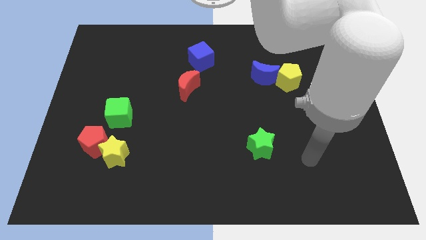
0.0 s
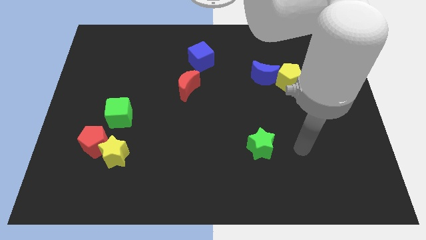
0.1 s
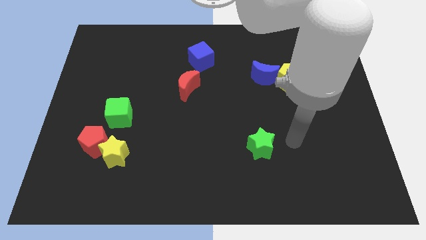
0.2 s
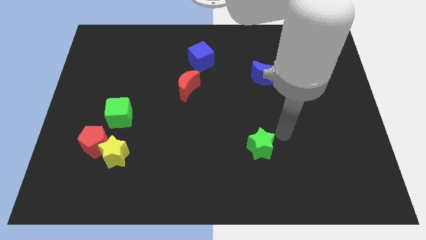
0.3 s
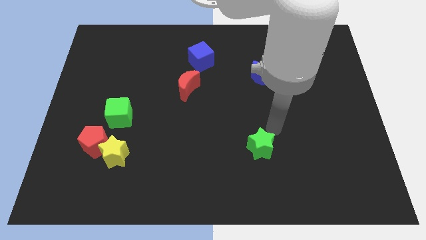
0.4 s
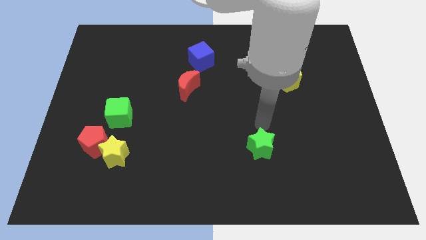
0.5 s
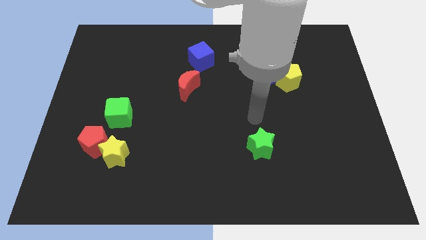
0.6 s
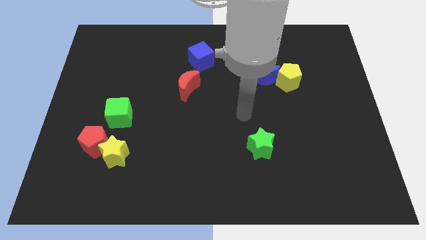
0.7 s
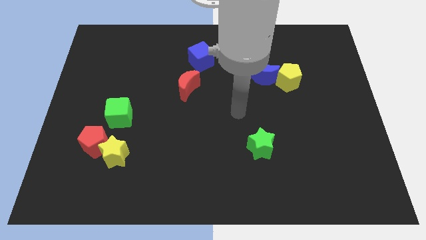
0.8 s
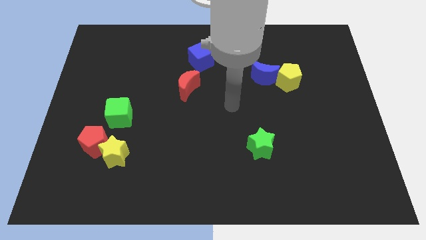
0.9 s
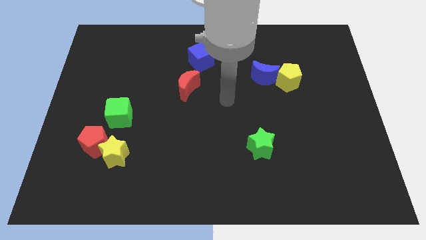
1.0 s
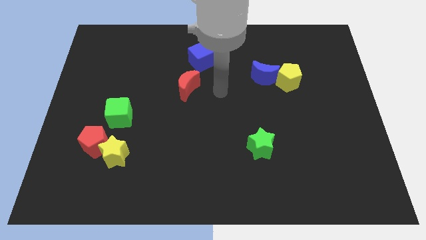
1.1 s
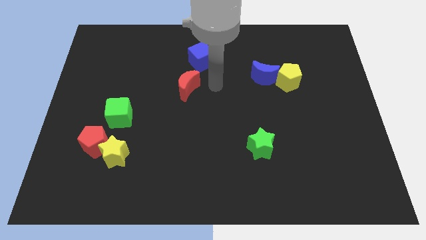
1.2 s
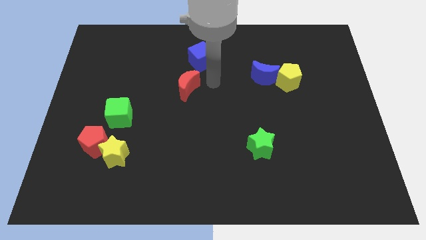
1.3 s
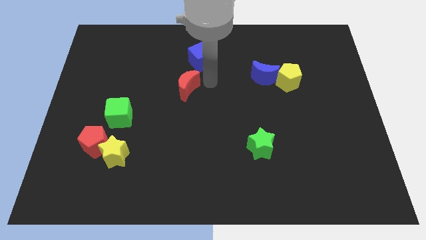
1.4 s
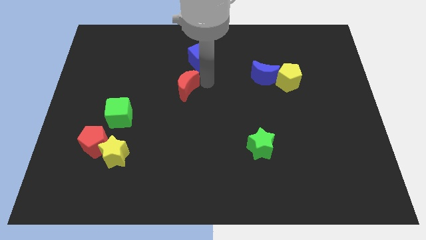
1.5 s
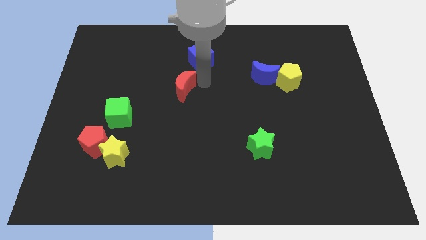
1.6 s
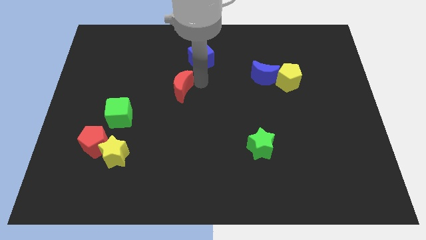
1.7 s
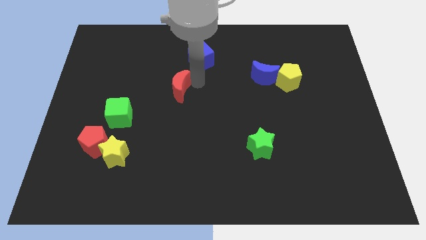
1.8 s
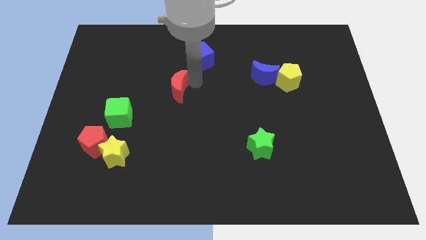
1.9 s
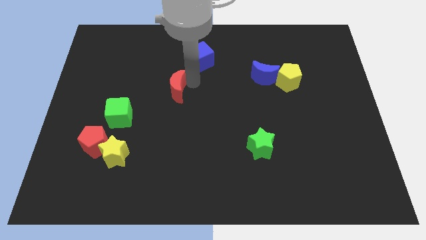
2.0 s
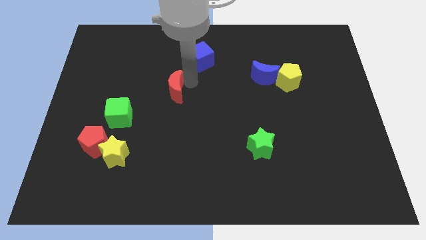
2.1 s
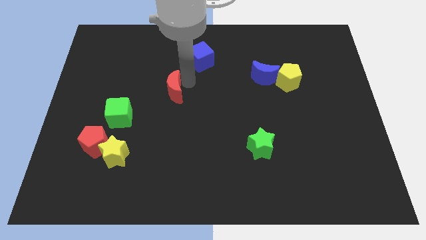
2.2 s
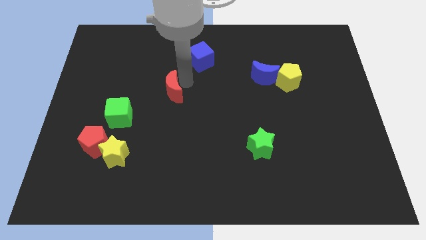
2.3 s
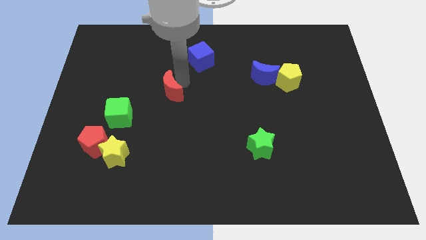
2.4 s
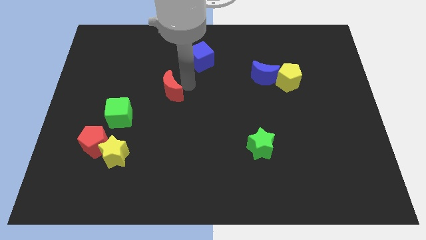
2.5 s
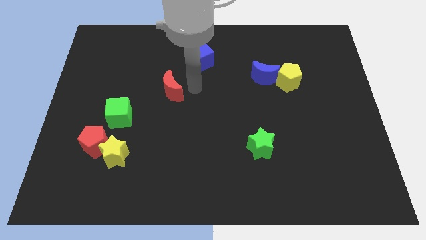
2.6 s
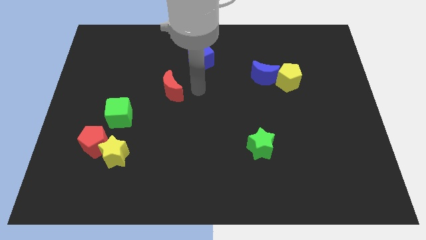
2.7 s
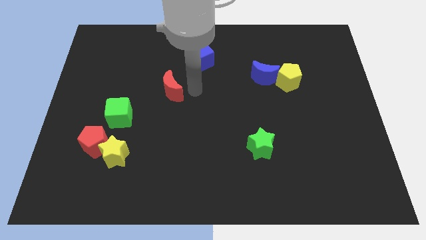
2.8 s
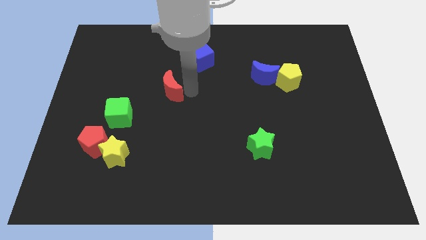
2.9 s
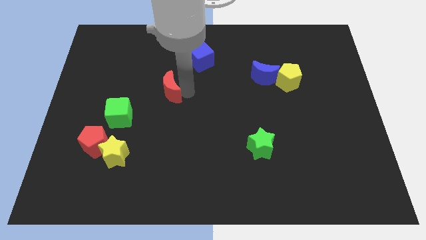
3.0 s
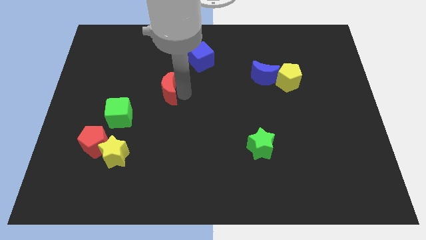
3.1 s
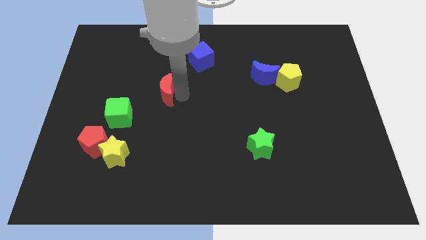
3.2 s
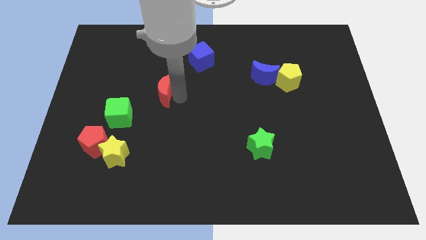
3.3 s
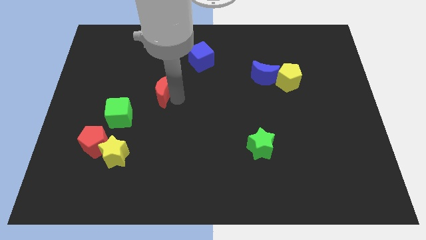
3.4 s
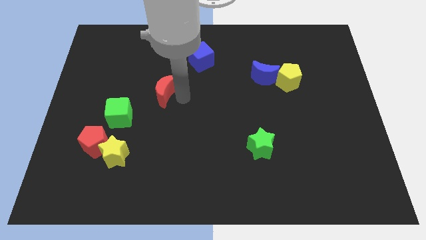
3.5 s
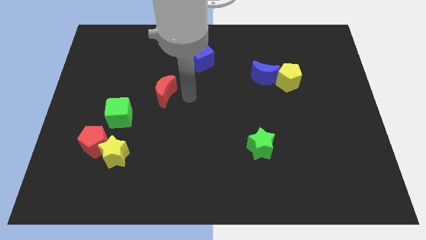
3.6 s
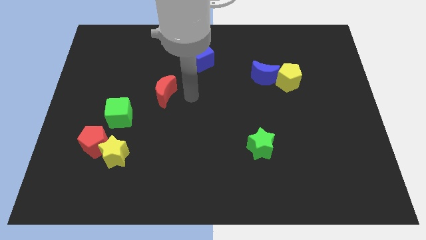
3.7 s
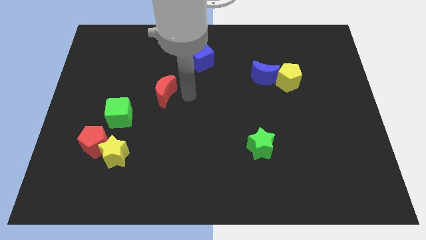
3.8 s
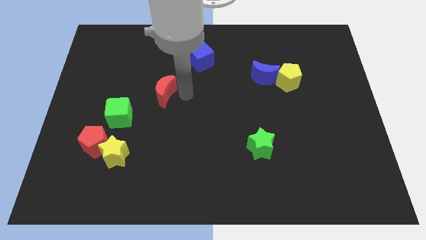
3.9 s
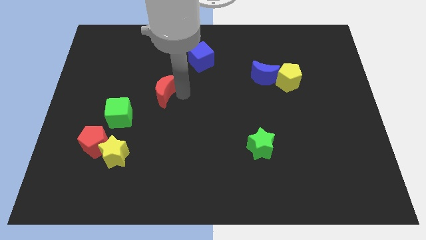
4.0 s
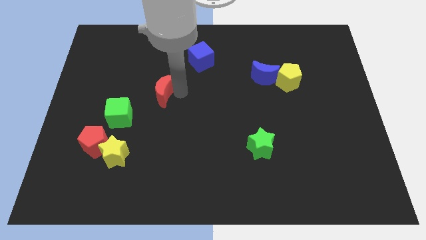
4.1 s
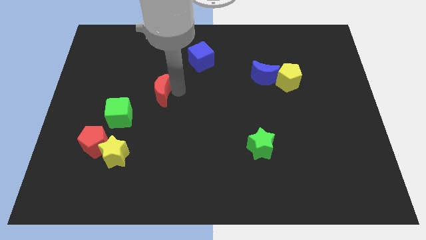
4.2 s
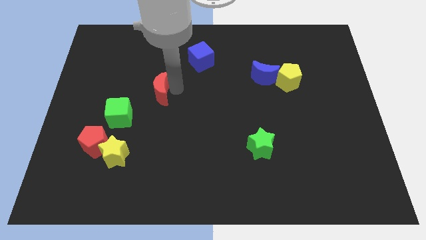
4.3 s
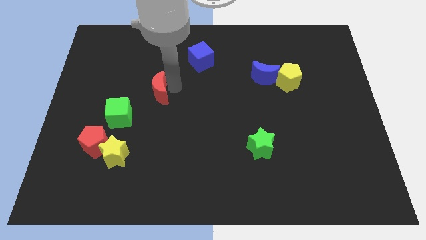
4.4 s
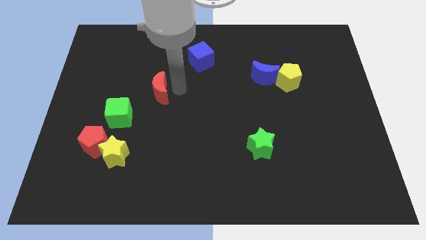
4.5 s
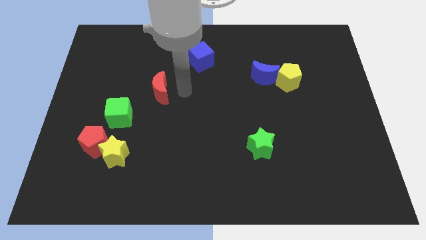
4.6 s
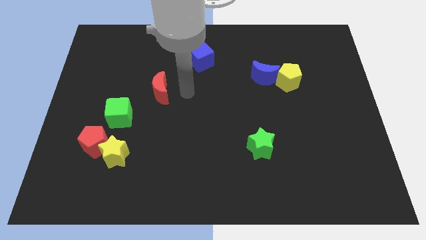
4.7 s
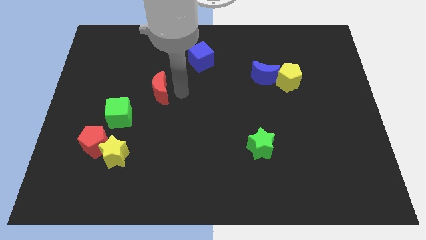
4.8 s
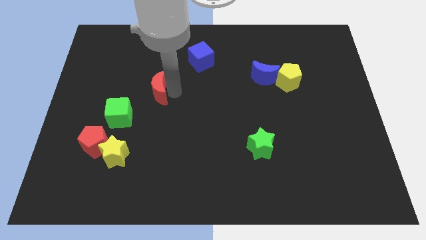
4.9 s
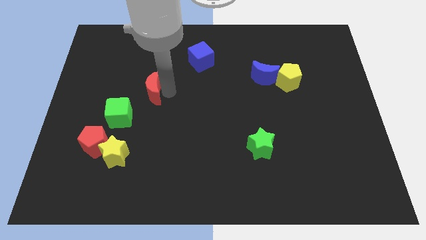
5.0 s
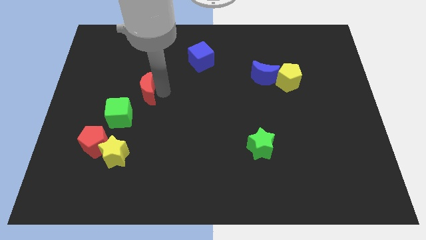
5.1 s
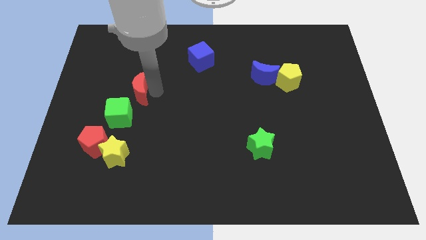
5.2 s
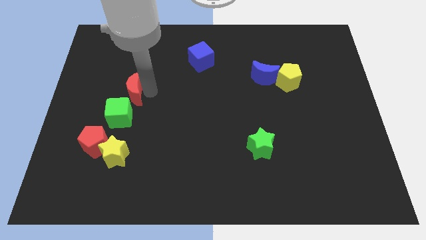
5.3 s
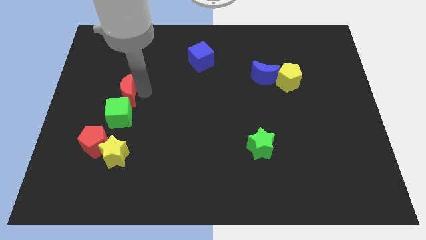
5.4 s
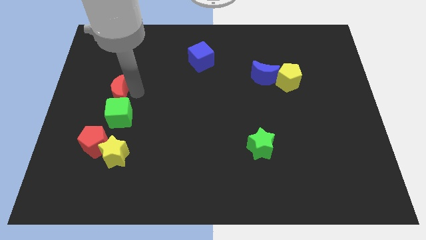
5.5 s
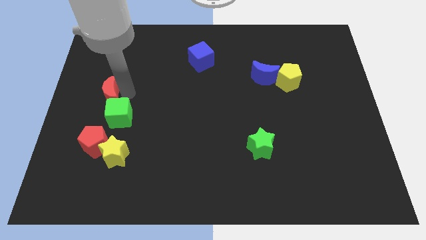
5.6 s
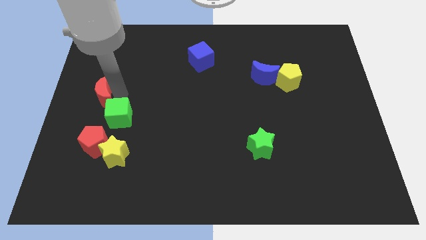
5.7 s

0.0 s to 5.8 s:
move the red moon to the left side

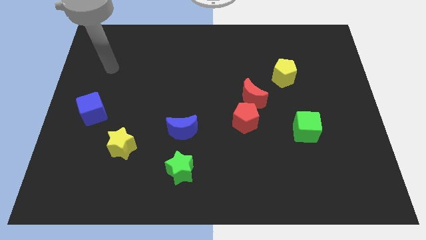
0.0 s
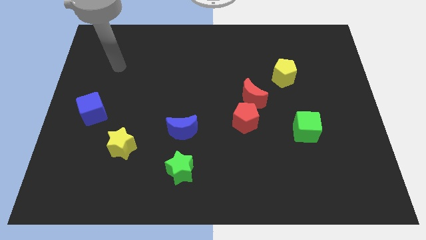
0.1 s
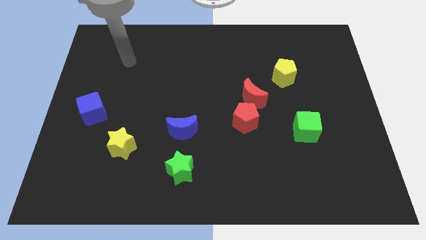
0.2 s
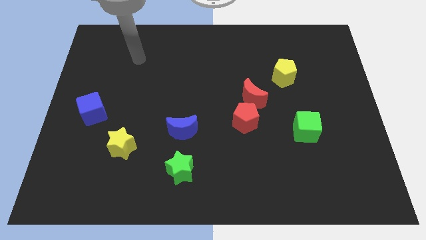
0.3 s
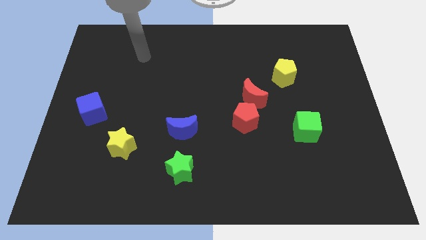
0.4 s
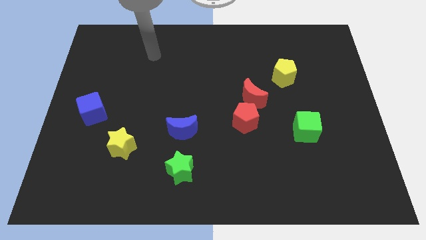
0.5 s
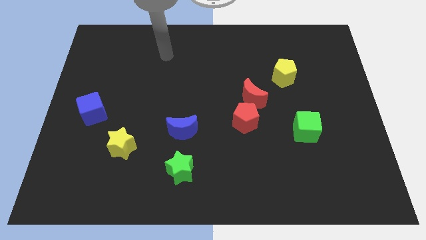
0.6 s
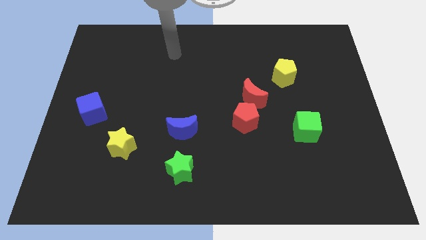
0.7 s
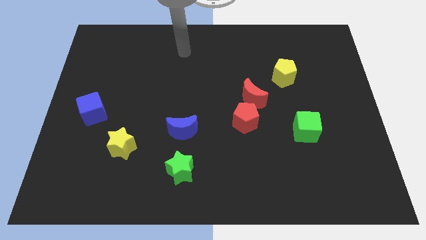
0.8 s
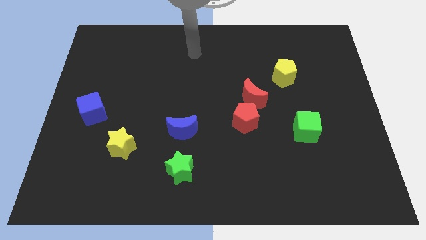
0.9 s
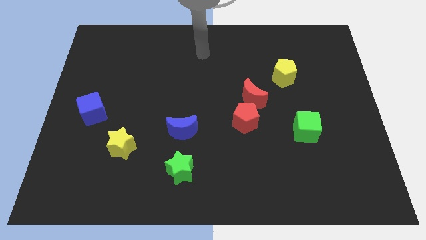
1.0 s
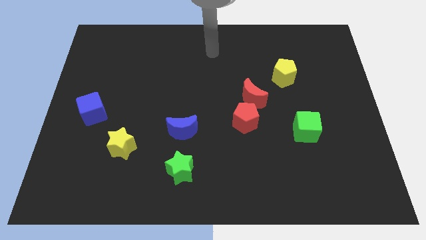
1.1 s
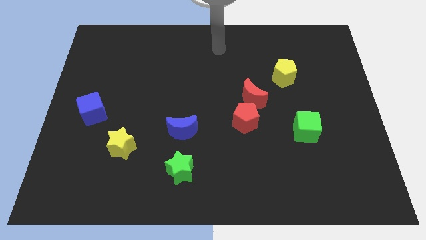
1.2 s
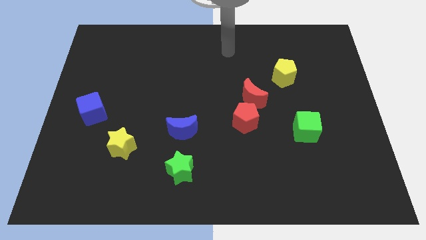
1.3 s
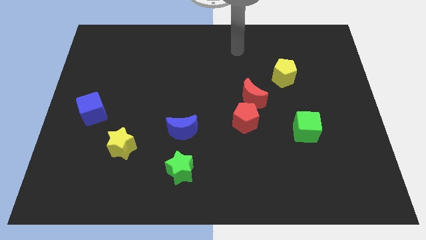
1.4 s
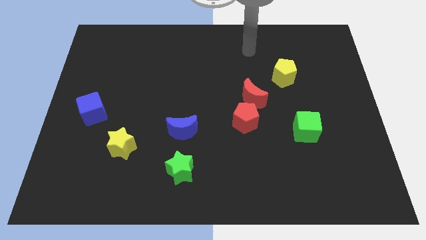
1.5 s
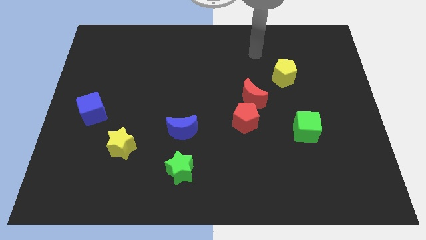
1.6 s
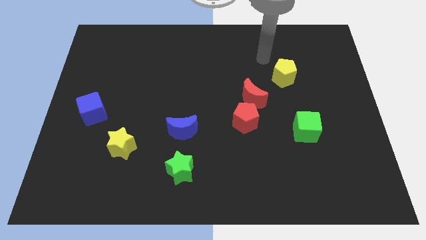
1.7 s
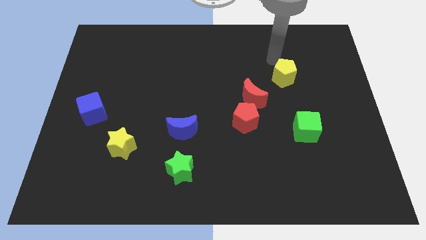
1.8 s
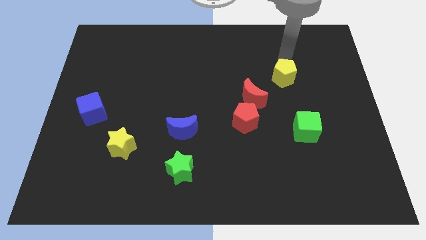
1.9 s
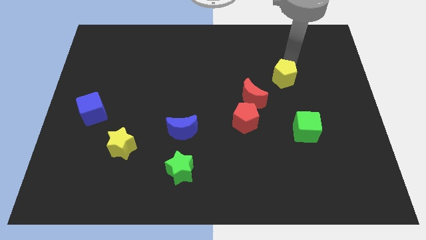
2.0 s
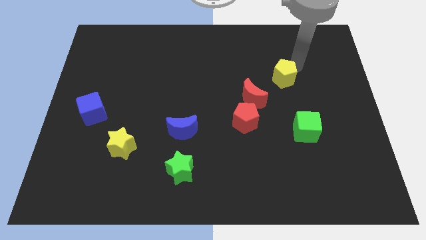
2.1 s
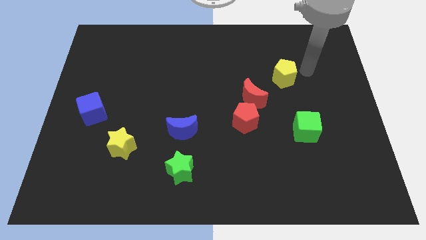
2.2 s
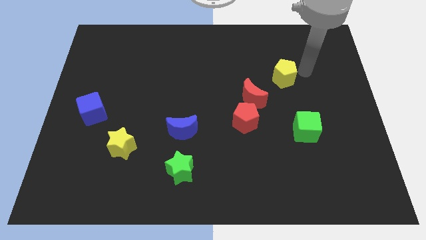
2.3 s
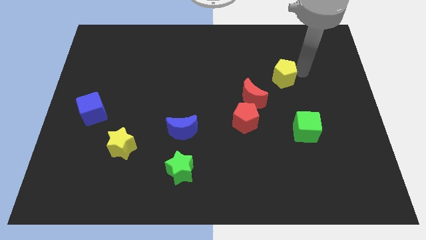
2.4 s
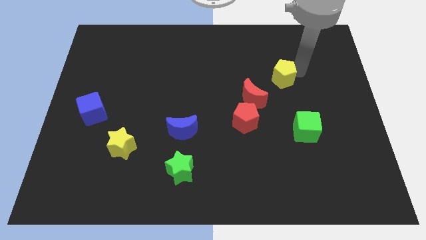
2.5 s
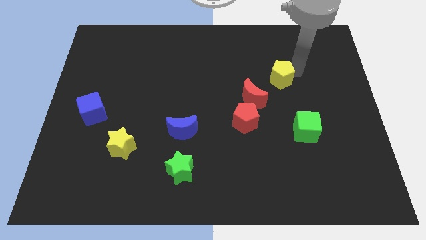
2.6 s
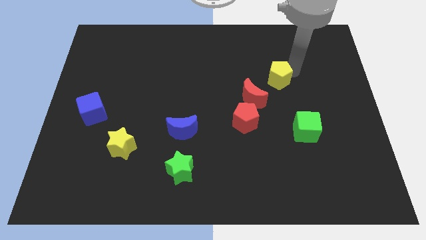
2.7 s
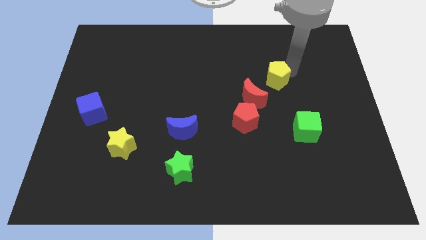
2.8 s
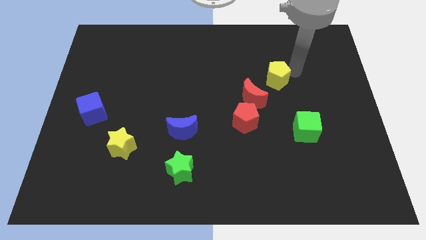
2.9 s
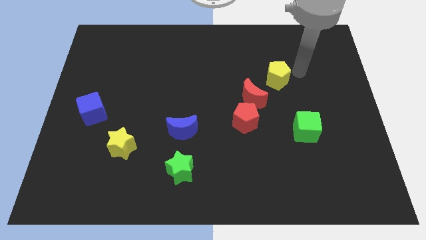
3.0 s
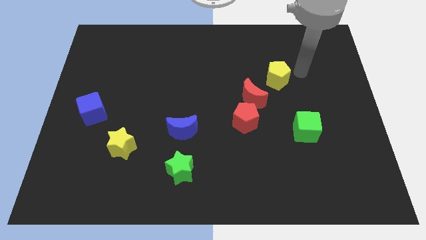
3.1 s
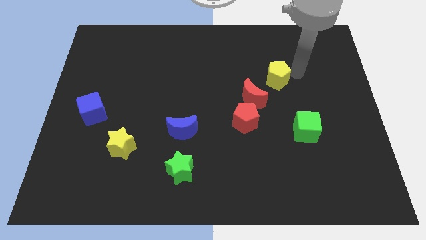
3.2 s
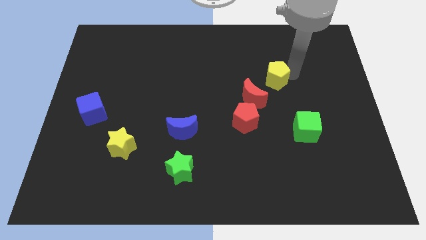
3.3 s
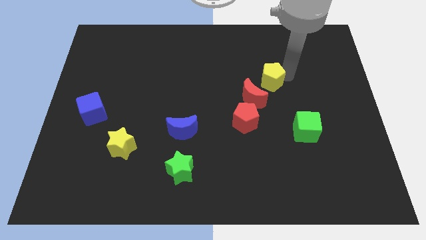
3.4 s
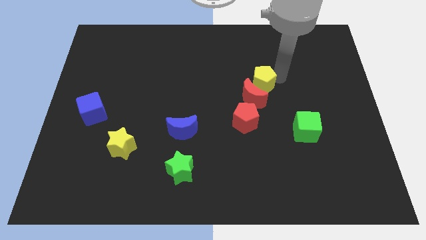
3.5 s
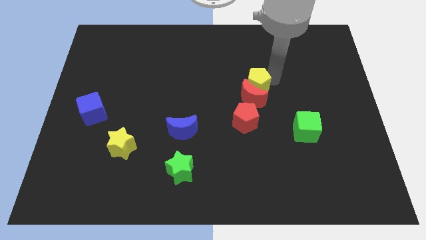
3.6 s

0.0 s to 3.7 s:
push the yellow pentagon to the middle
